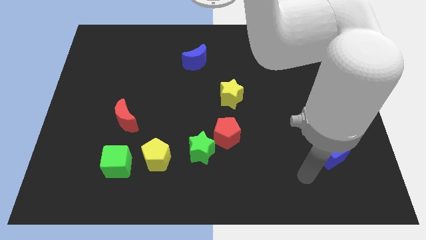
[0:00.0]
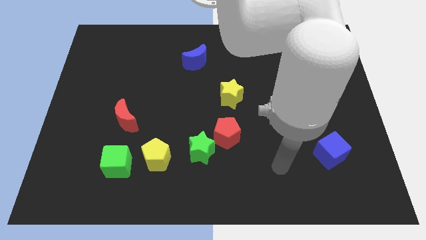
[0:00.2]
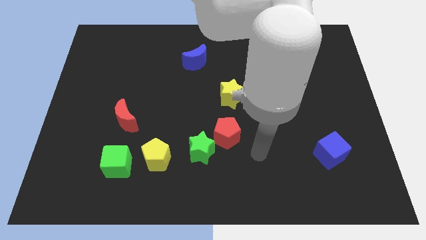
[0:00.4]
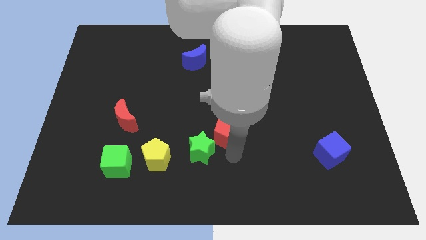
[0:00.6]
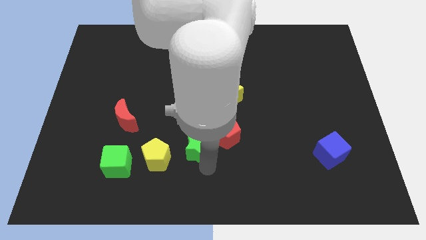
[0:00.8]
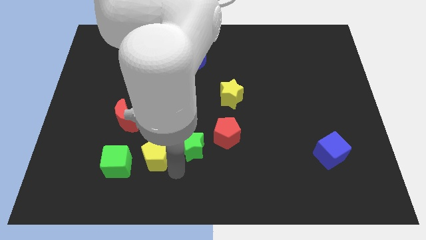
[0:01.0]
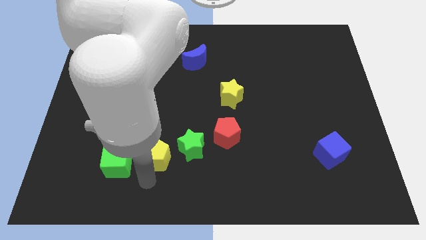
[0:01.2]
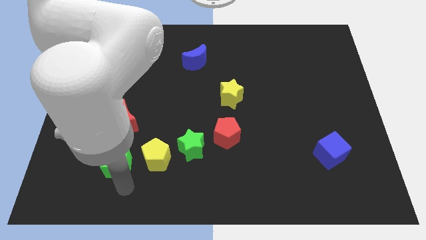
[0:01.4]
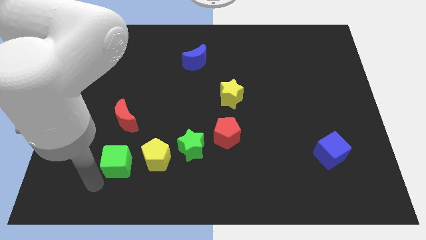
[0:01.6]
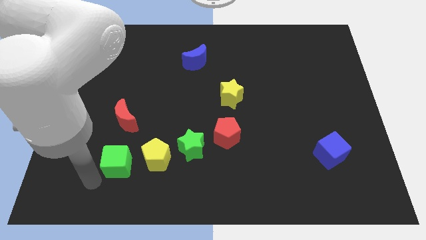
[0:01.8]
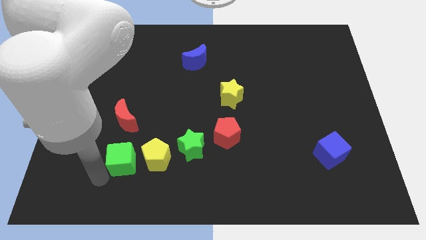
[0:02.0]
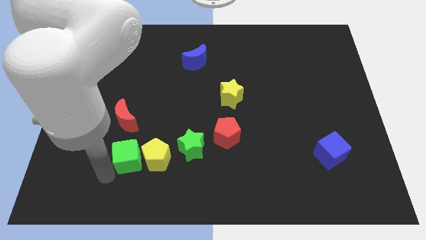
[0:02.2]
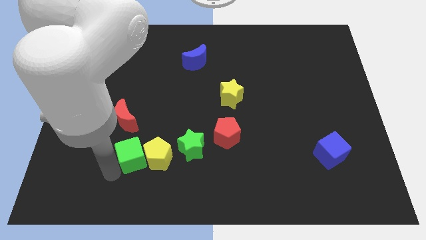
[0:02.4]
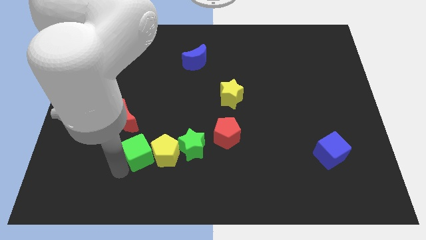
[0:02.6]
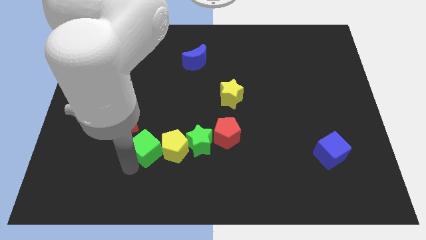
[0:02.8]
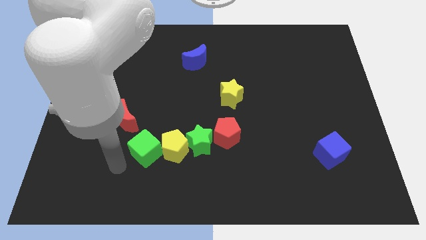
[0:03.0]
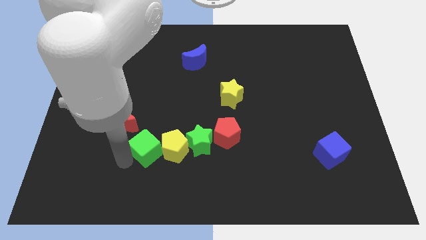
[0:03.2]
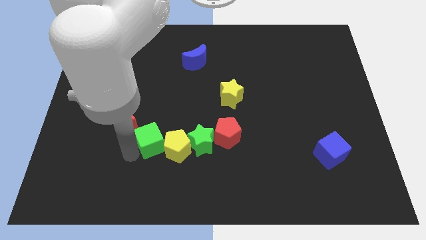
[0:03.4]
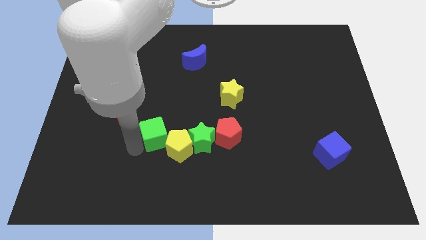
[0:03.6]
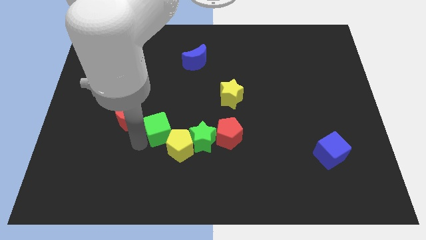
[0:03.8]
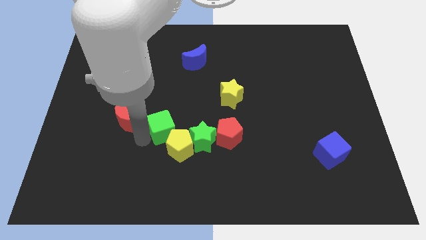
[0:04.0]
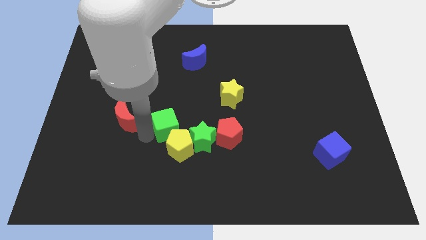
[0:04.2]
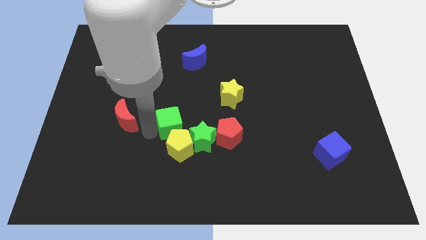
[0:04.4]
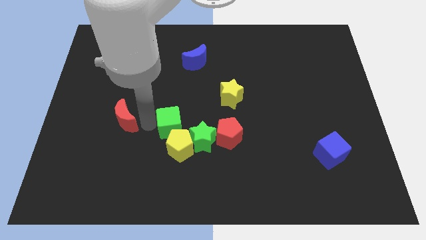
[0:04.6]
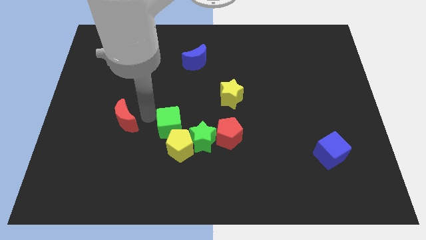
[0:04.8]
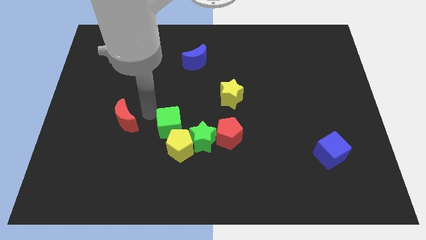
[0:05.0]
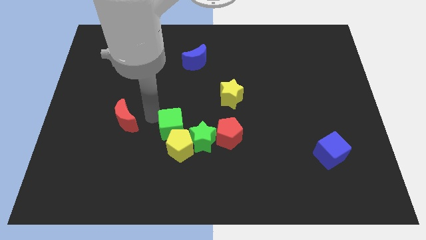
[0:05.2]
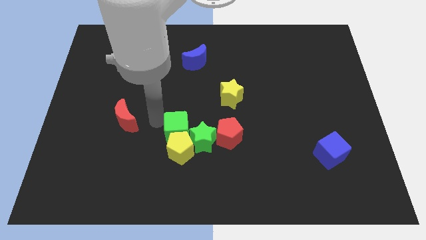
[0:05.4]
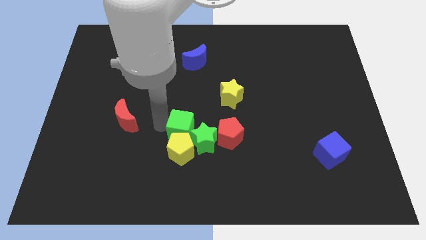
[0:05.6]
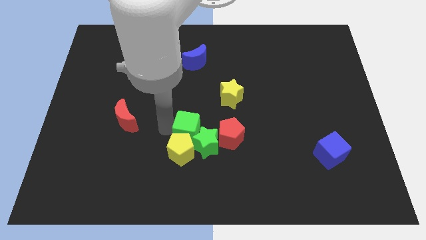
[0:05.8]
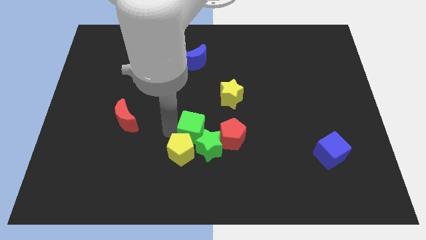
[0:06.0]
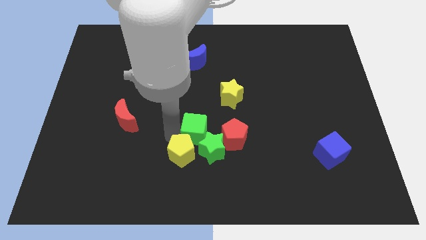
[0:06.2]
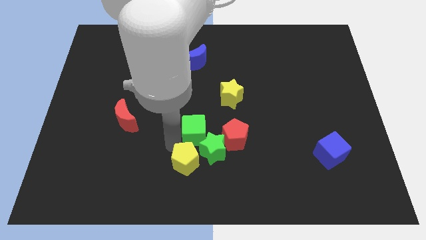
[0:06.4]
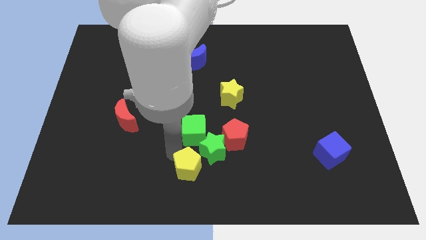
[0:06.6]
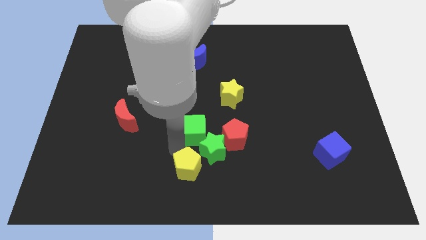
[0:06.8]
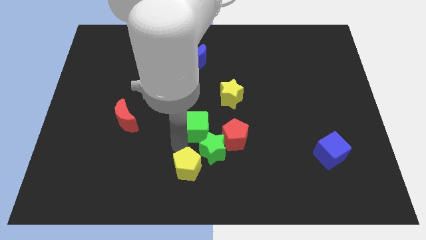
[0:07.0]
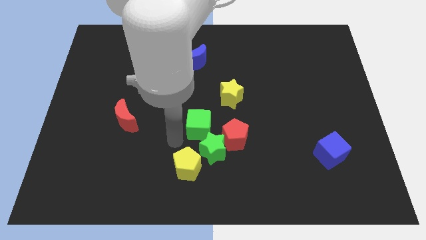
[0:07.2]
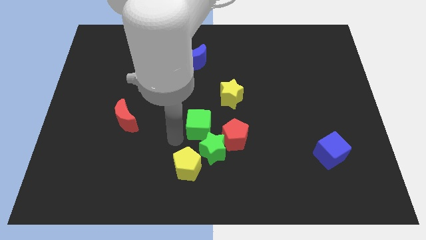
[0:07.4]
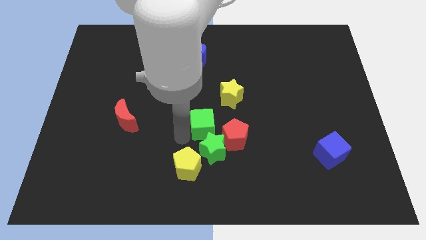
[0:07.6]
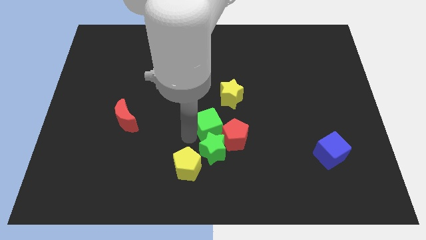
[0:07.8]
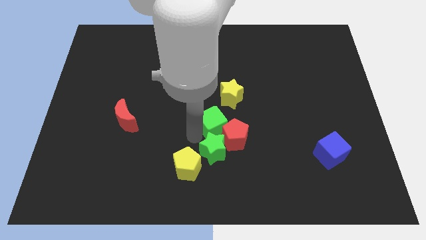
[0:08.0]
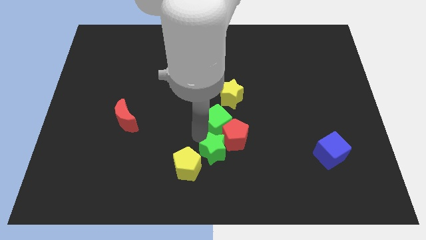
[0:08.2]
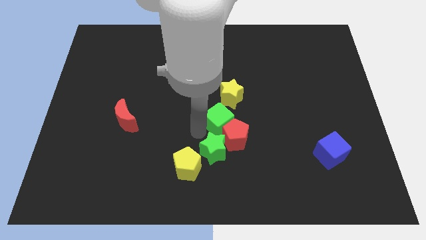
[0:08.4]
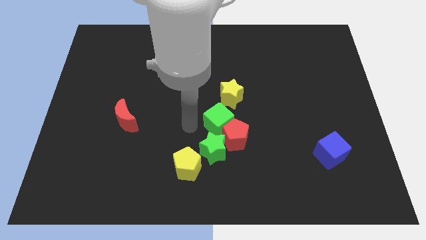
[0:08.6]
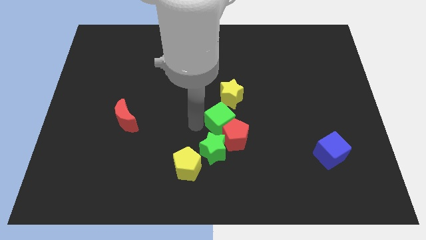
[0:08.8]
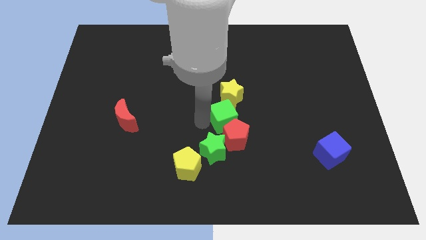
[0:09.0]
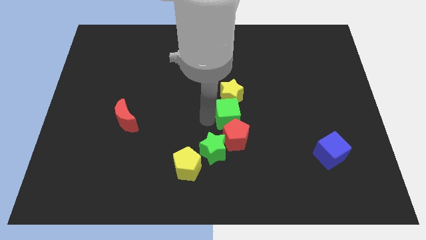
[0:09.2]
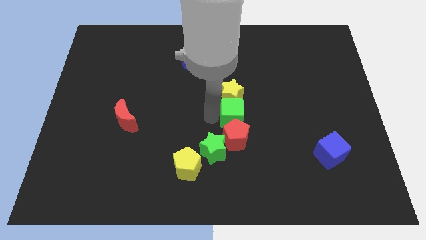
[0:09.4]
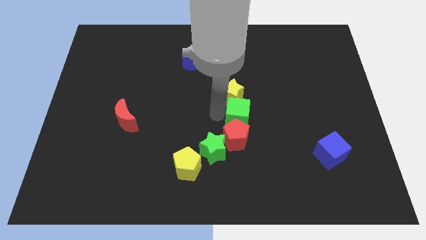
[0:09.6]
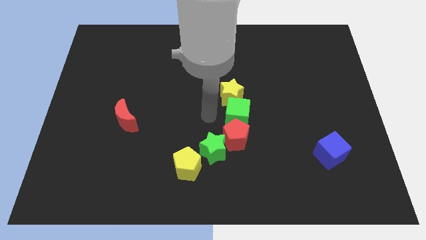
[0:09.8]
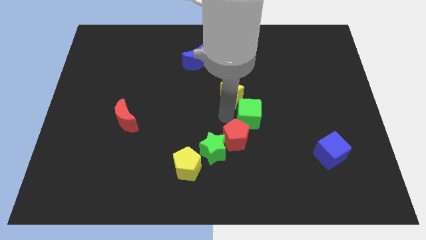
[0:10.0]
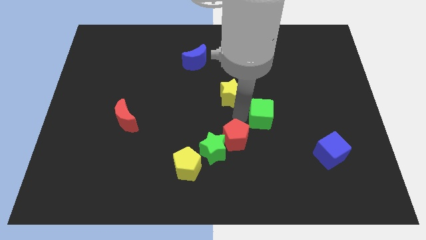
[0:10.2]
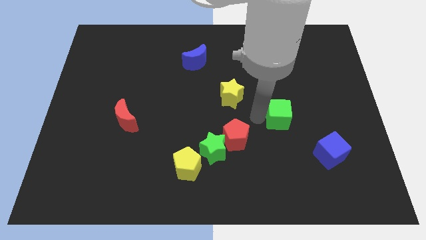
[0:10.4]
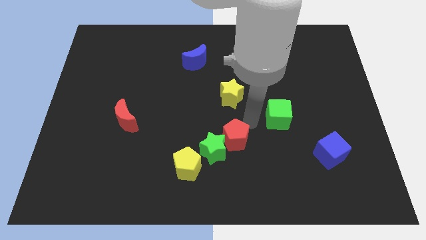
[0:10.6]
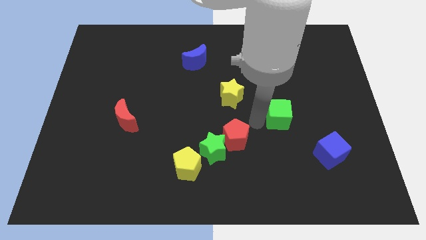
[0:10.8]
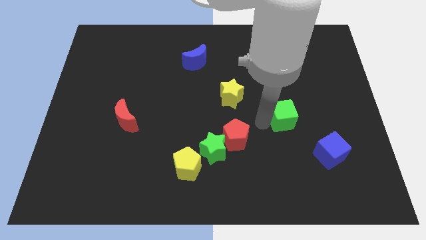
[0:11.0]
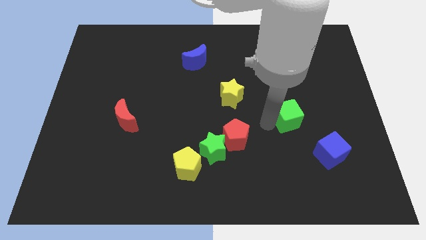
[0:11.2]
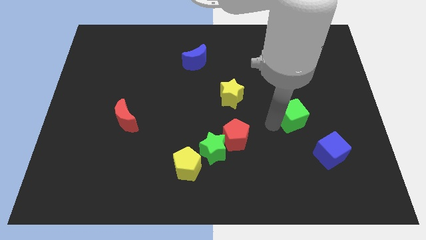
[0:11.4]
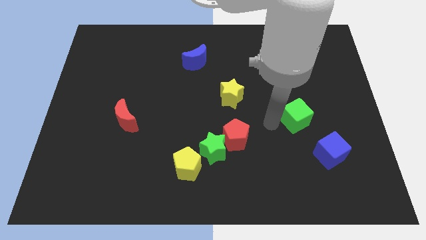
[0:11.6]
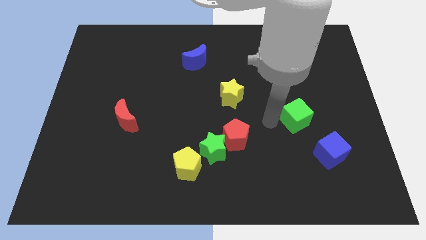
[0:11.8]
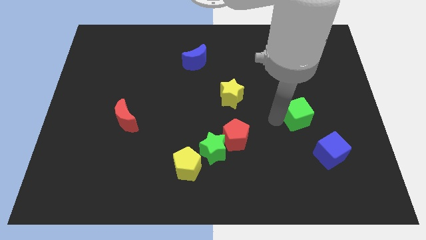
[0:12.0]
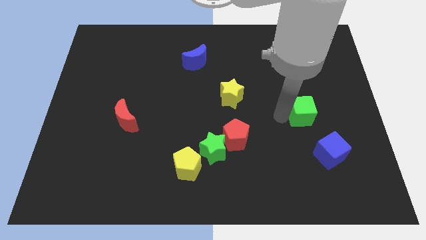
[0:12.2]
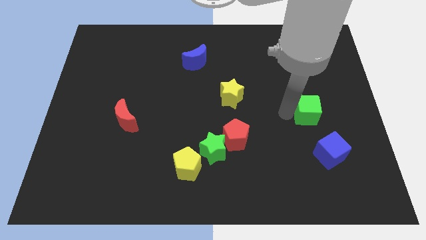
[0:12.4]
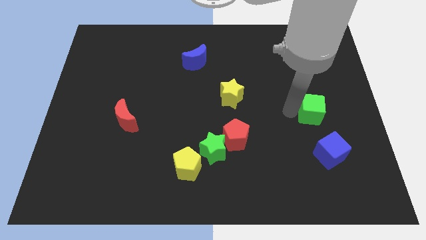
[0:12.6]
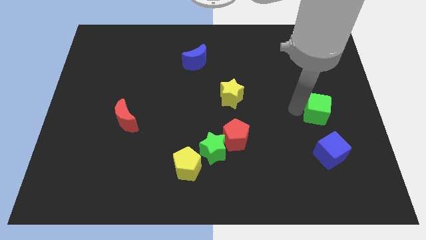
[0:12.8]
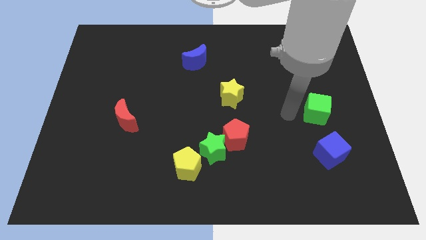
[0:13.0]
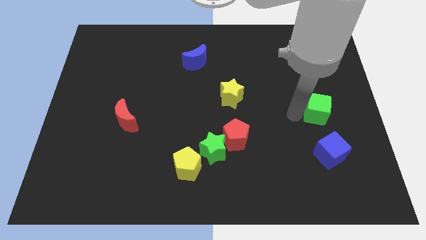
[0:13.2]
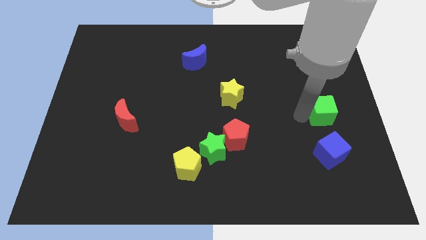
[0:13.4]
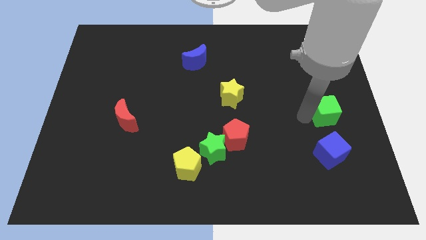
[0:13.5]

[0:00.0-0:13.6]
move the green cube to the center right

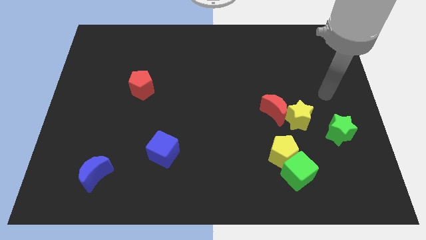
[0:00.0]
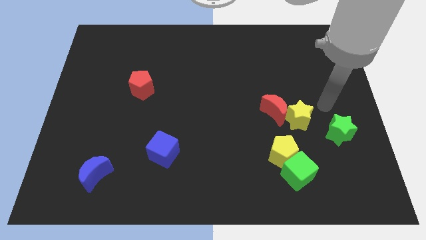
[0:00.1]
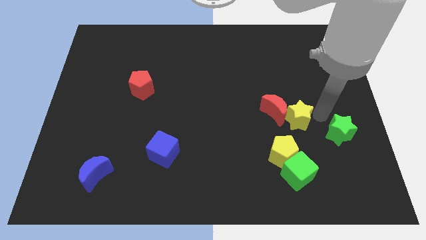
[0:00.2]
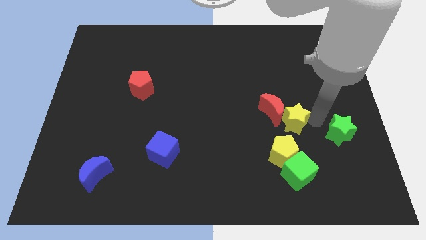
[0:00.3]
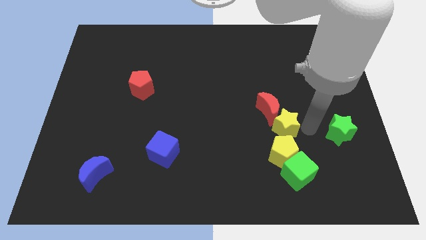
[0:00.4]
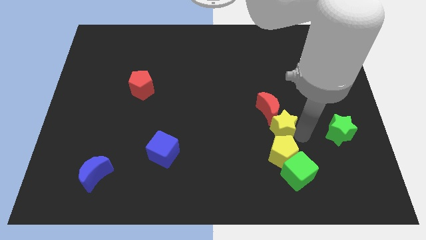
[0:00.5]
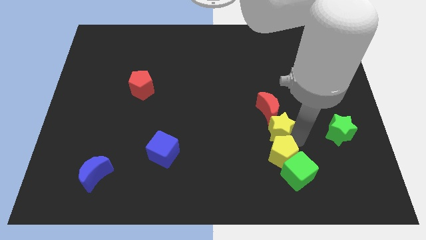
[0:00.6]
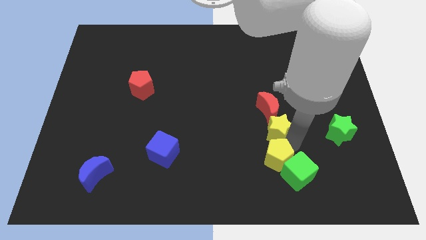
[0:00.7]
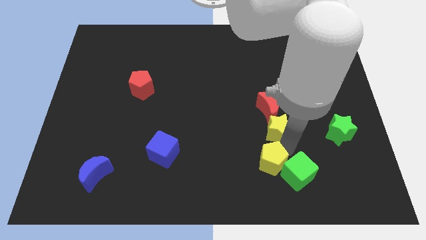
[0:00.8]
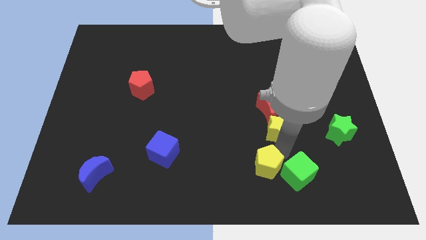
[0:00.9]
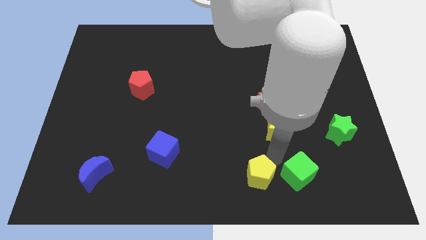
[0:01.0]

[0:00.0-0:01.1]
slide the yellow pentagon to the bottom side
